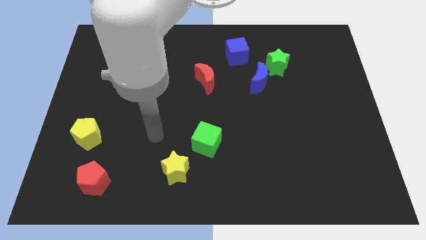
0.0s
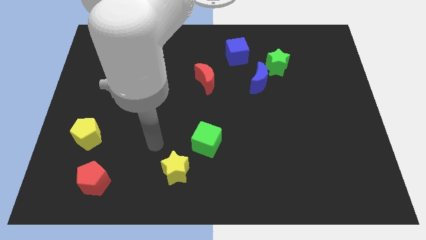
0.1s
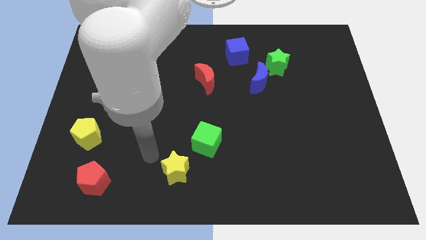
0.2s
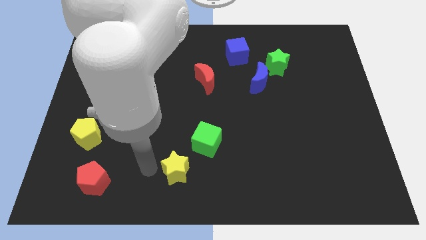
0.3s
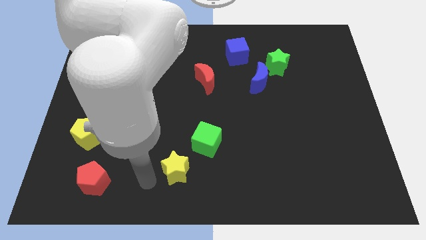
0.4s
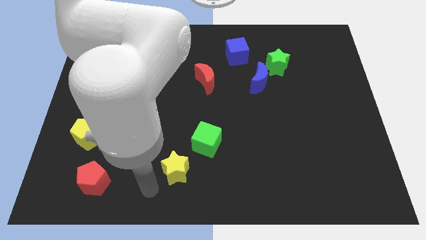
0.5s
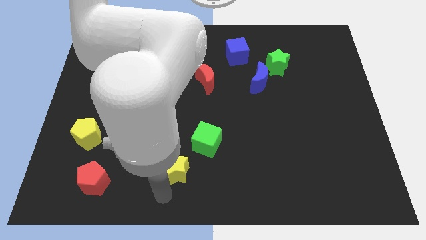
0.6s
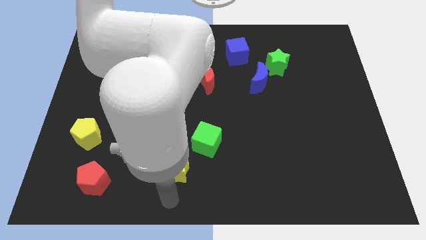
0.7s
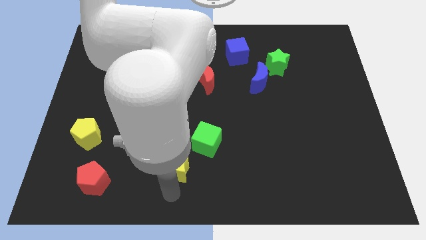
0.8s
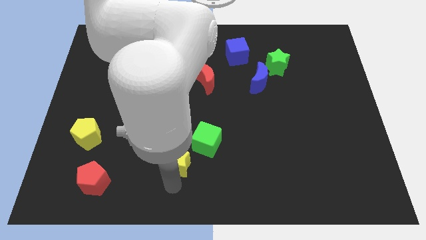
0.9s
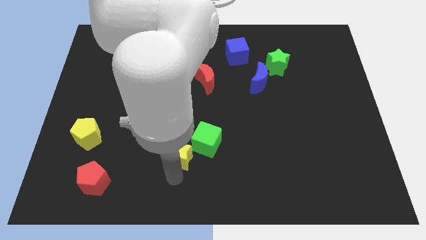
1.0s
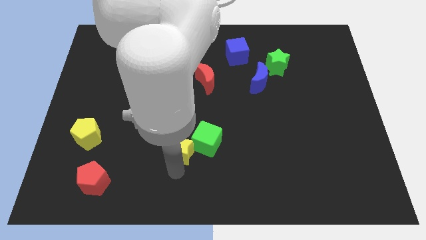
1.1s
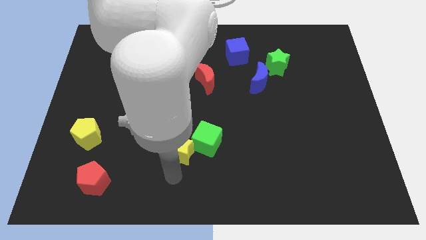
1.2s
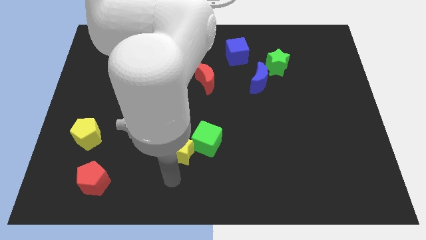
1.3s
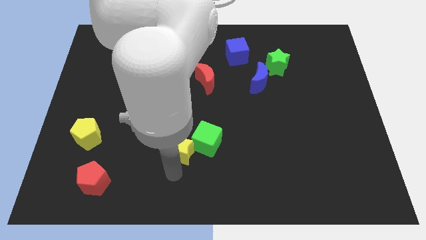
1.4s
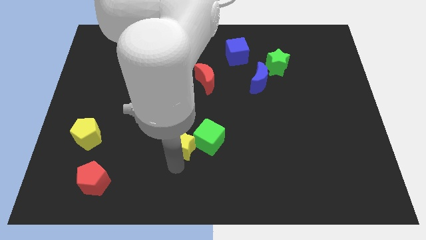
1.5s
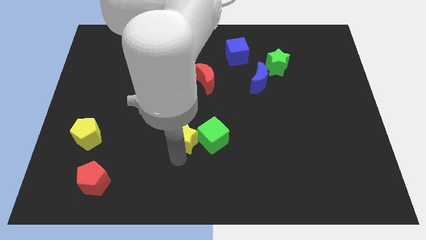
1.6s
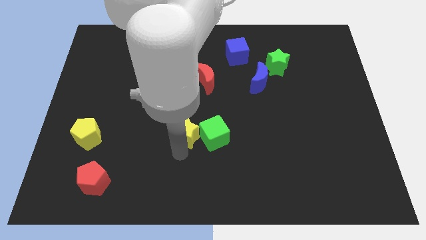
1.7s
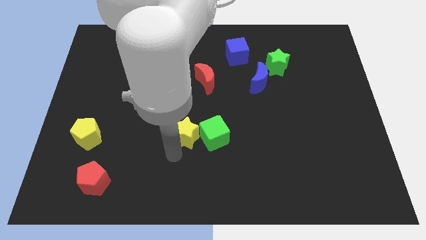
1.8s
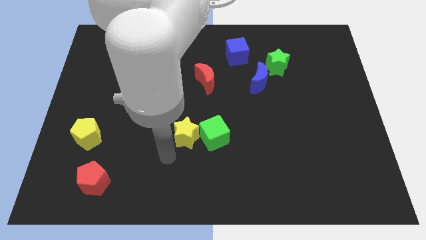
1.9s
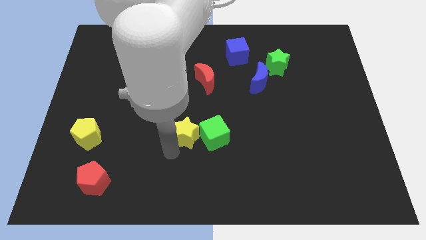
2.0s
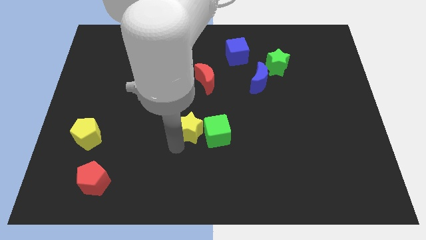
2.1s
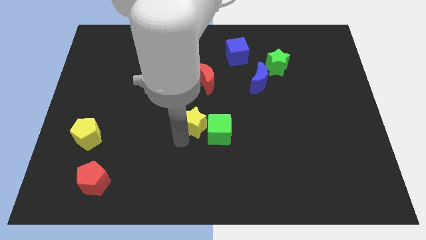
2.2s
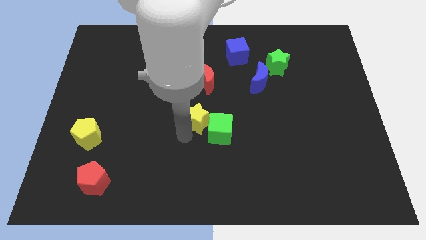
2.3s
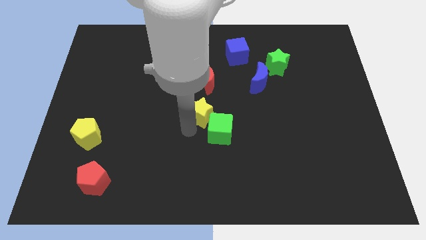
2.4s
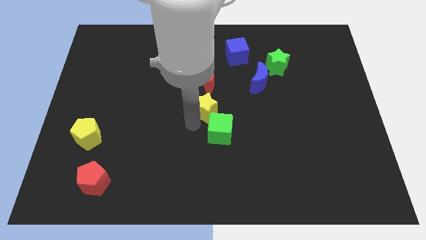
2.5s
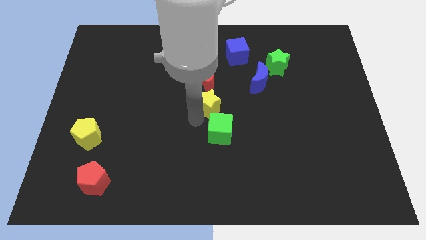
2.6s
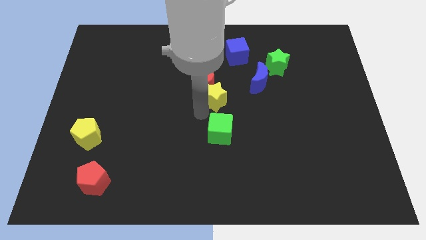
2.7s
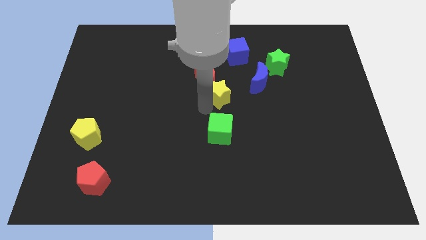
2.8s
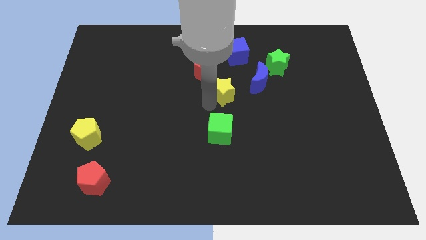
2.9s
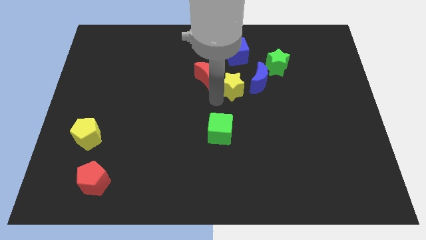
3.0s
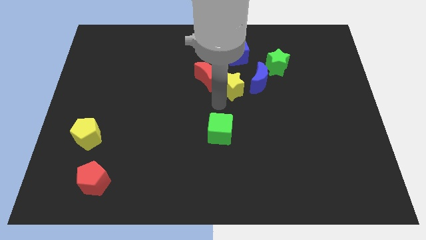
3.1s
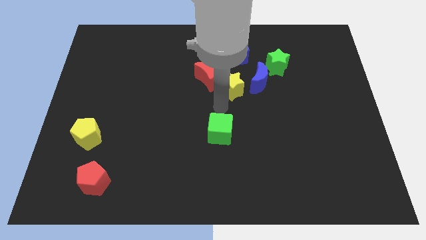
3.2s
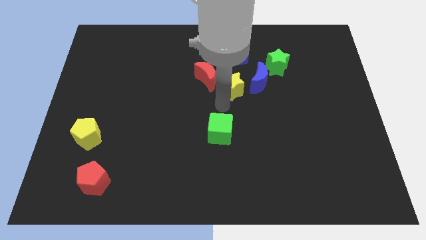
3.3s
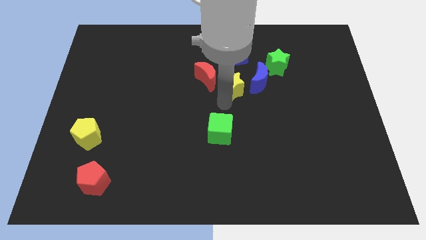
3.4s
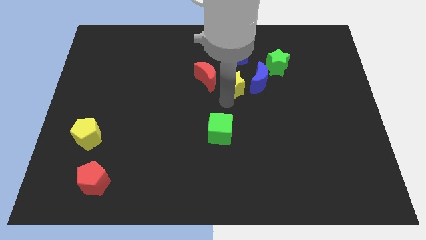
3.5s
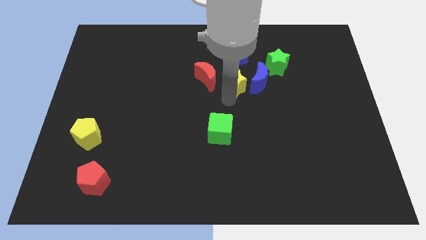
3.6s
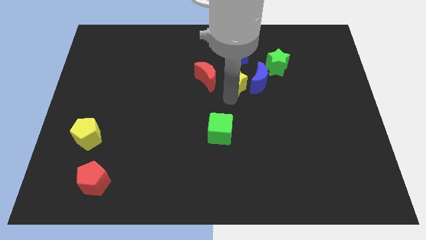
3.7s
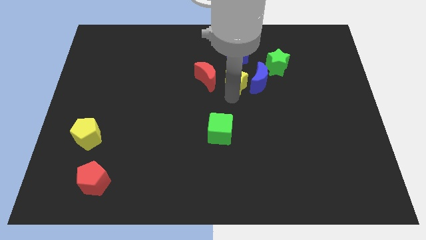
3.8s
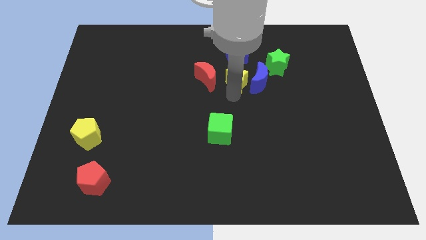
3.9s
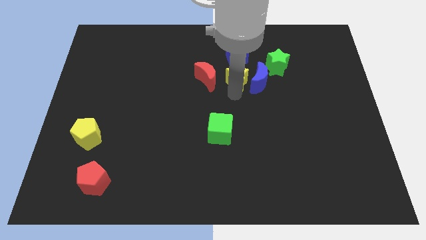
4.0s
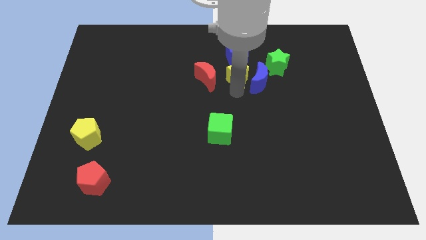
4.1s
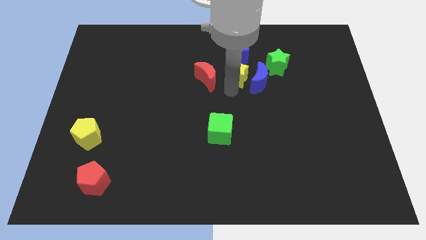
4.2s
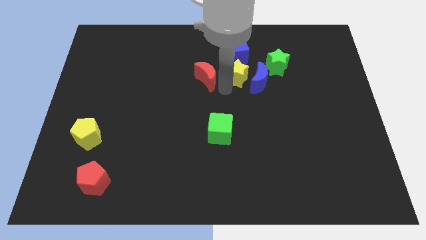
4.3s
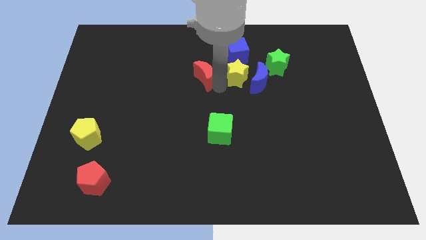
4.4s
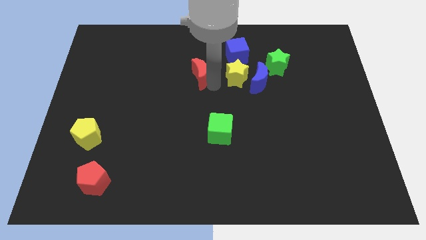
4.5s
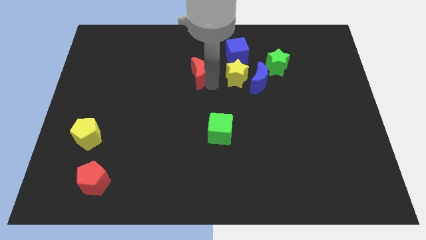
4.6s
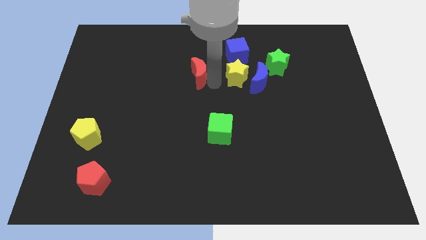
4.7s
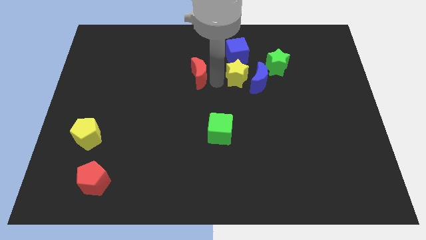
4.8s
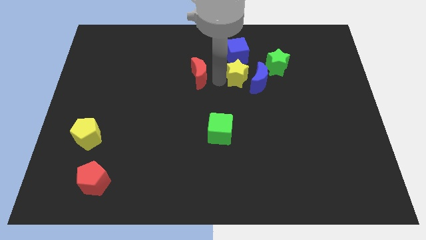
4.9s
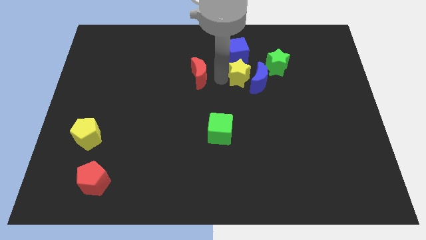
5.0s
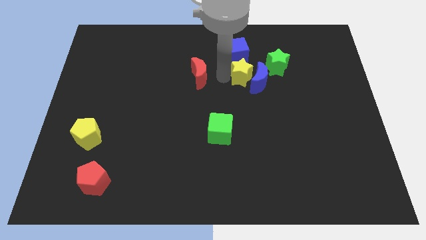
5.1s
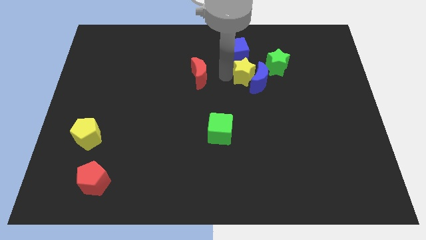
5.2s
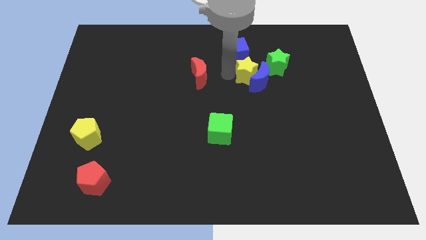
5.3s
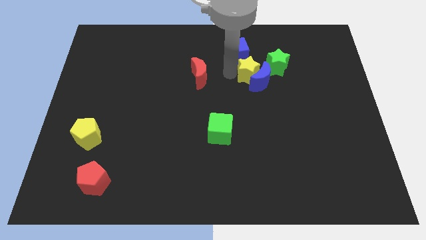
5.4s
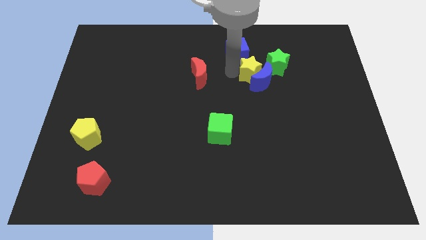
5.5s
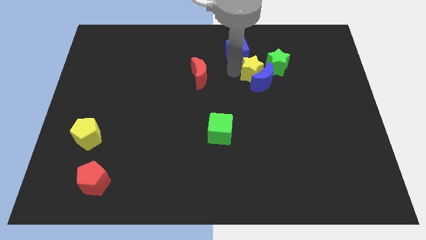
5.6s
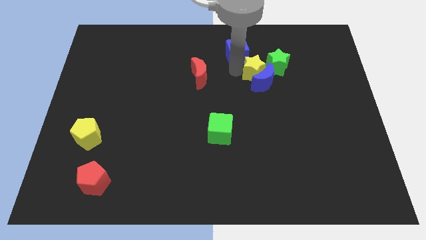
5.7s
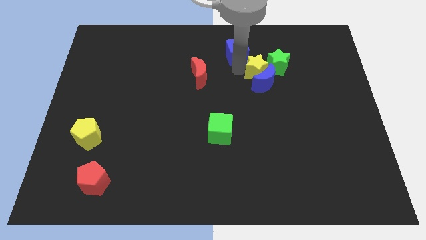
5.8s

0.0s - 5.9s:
slide the yellow star to the green star
